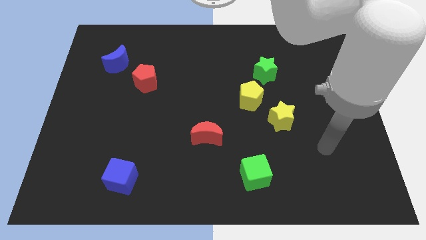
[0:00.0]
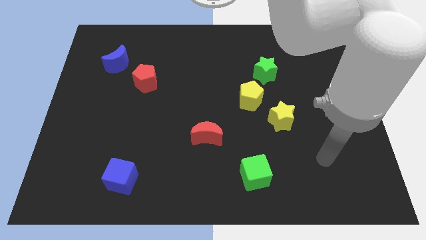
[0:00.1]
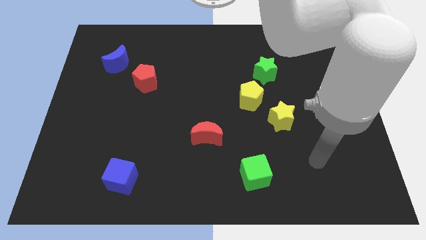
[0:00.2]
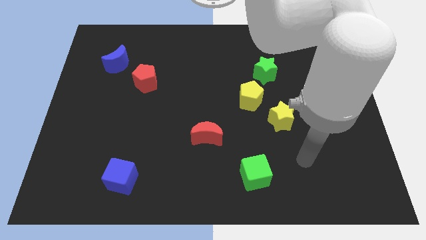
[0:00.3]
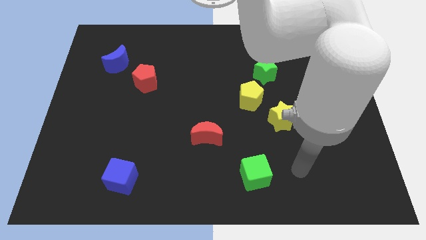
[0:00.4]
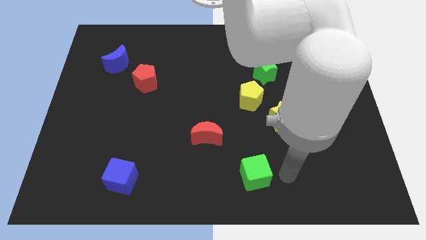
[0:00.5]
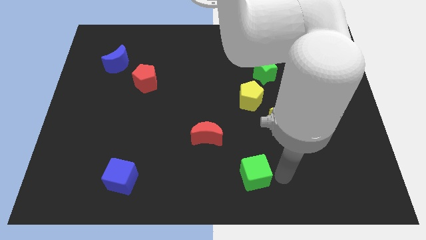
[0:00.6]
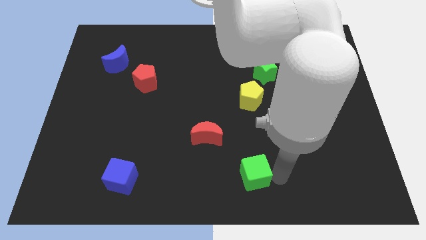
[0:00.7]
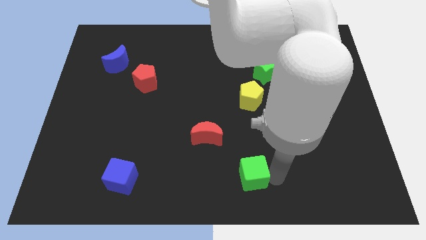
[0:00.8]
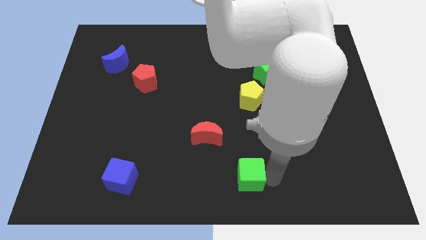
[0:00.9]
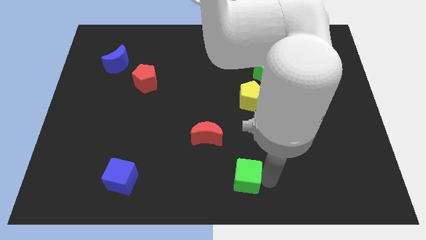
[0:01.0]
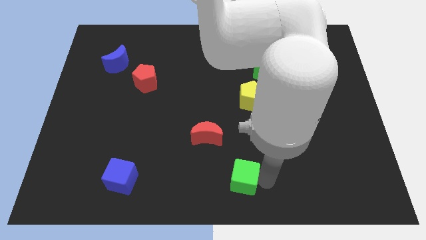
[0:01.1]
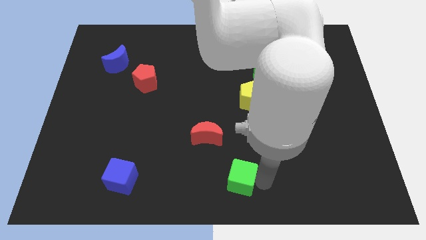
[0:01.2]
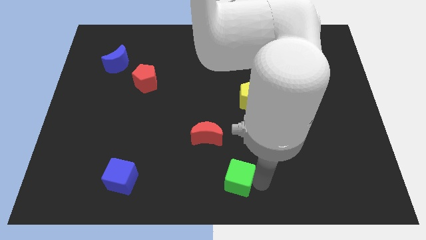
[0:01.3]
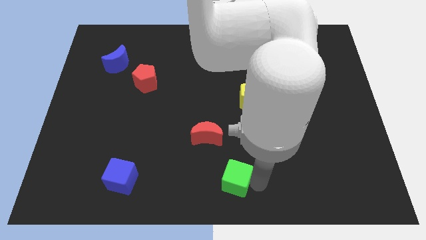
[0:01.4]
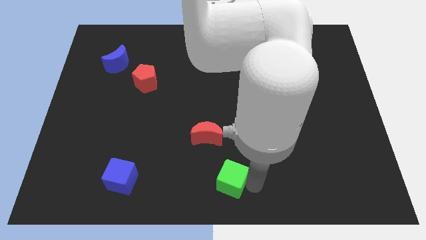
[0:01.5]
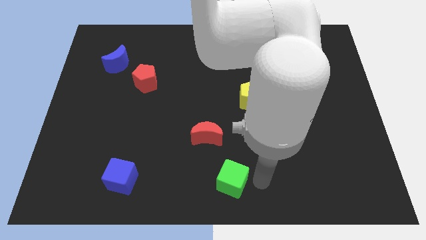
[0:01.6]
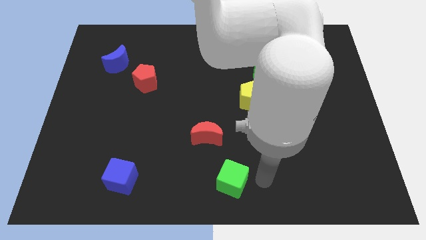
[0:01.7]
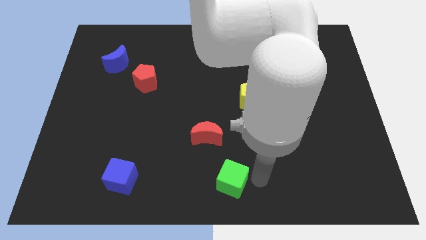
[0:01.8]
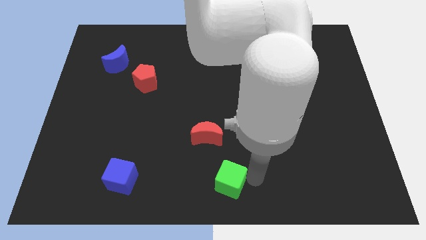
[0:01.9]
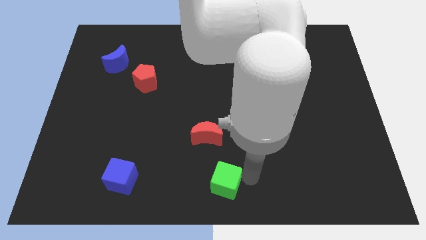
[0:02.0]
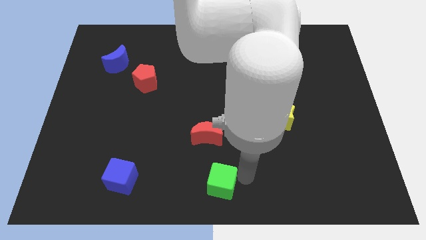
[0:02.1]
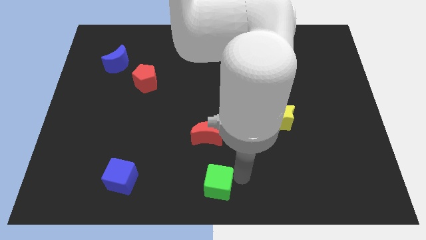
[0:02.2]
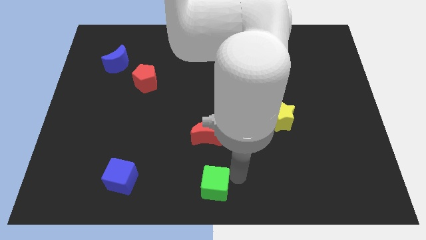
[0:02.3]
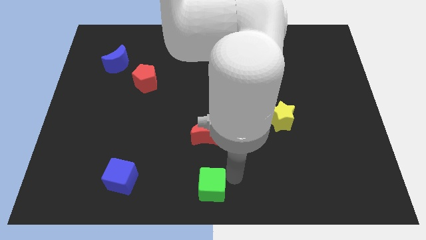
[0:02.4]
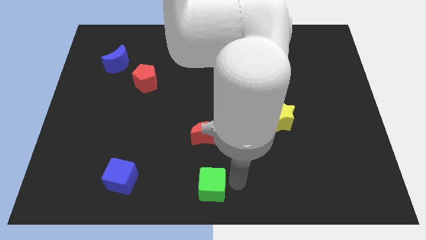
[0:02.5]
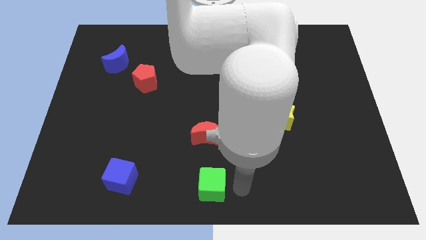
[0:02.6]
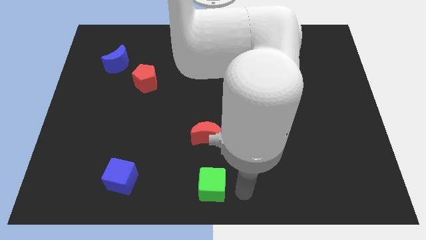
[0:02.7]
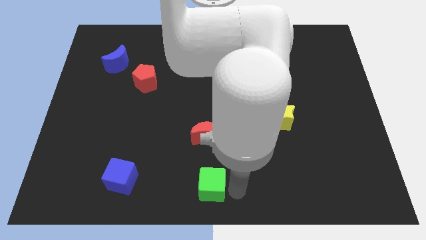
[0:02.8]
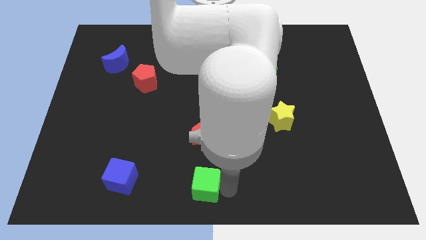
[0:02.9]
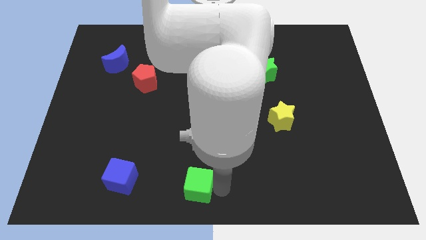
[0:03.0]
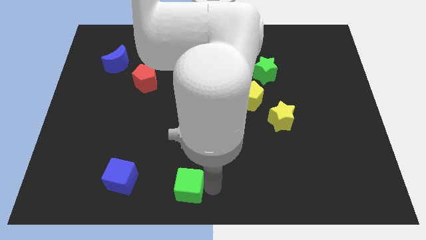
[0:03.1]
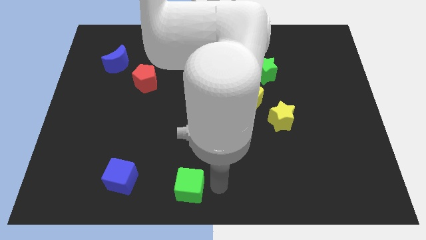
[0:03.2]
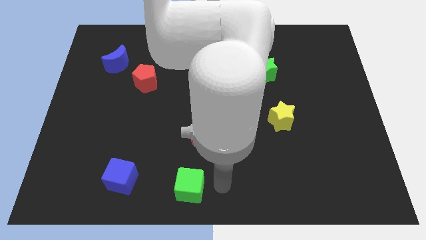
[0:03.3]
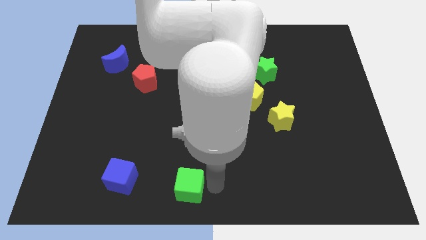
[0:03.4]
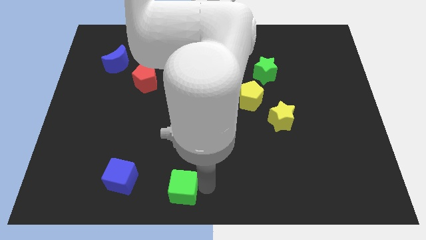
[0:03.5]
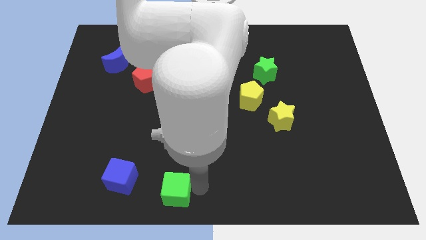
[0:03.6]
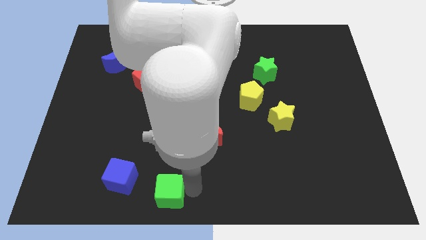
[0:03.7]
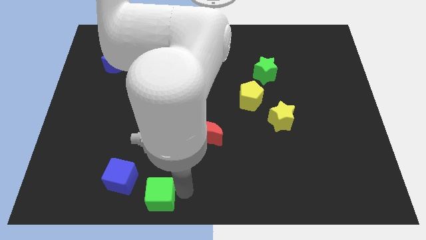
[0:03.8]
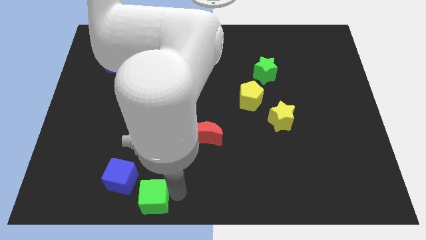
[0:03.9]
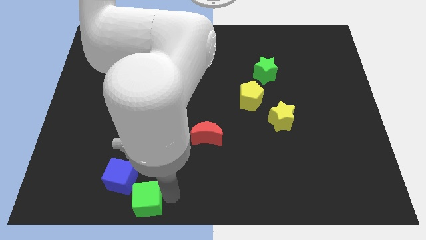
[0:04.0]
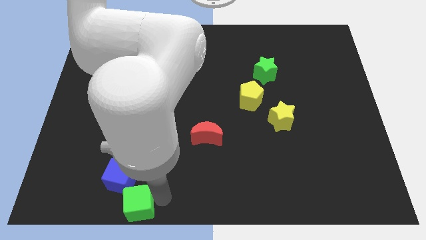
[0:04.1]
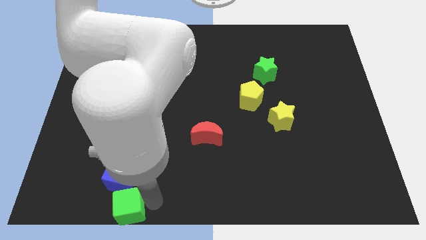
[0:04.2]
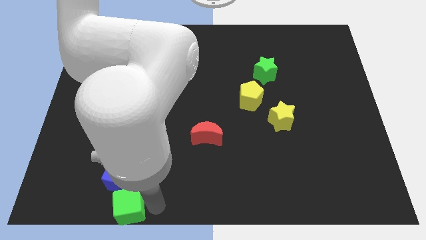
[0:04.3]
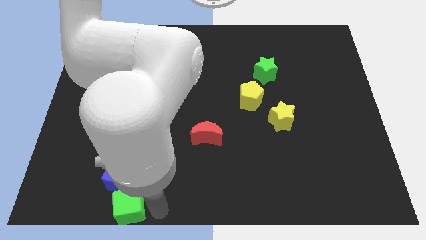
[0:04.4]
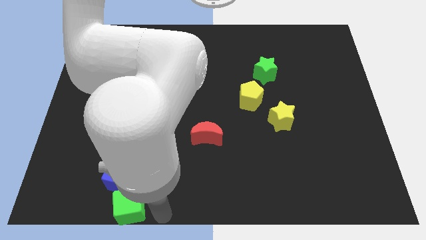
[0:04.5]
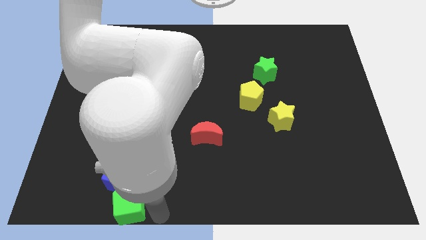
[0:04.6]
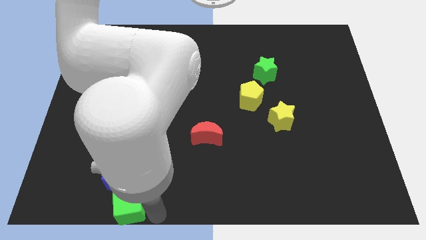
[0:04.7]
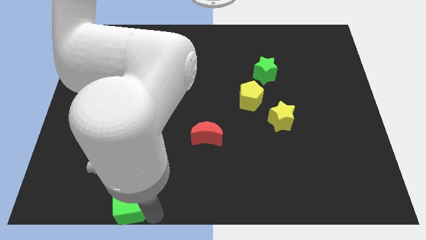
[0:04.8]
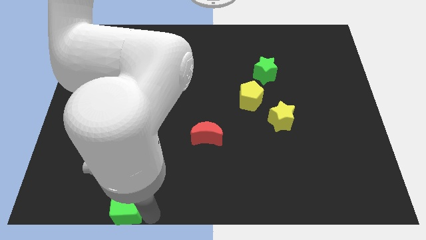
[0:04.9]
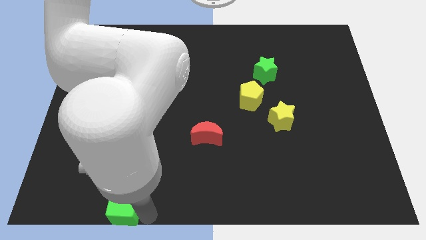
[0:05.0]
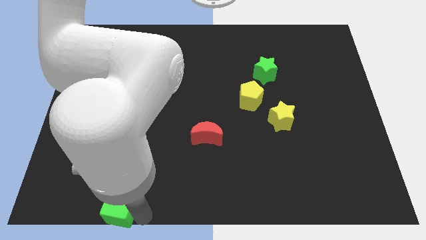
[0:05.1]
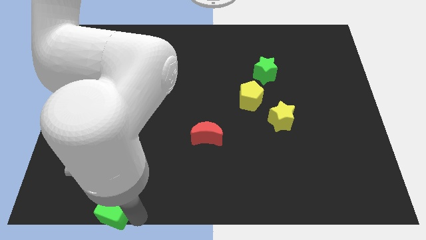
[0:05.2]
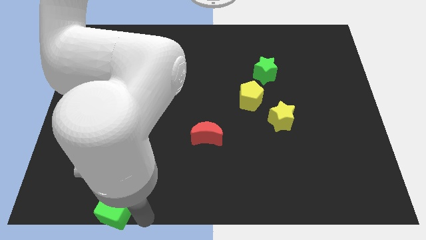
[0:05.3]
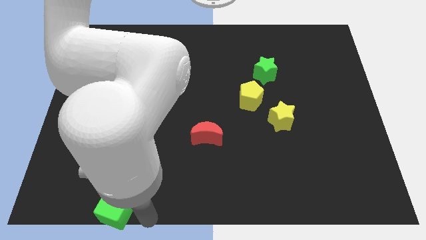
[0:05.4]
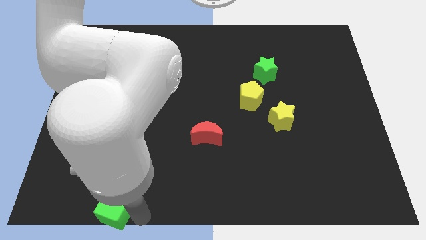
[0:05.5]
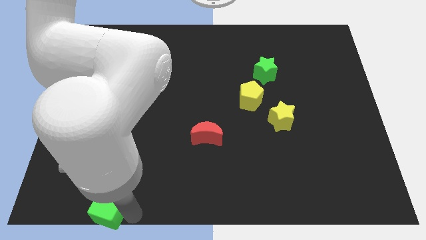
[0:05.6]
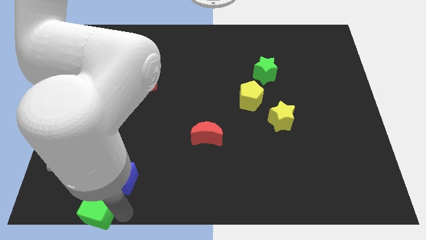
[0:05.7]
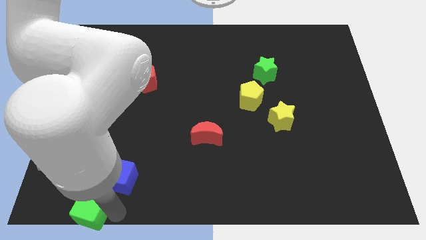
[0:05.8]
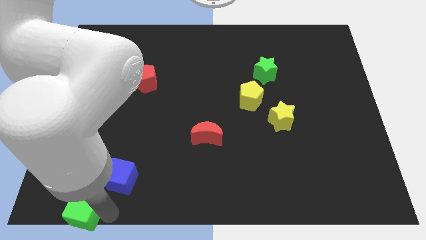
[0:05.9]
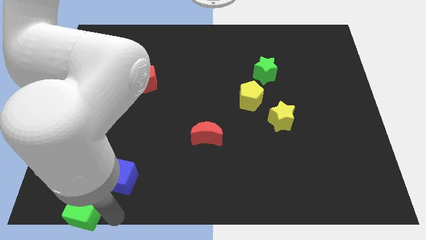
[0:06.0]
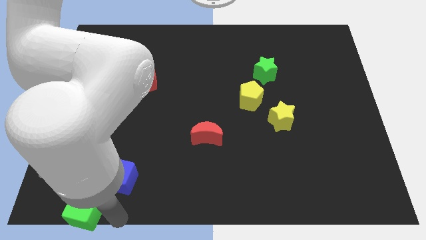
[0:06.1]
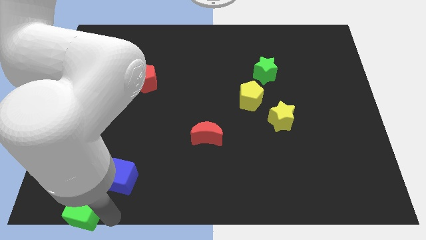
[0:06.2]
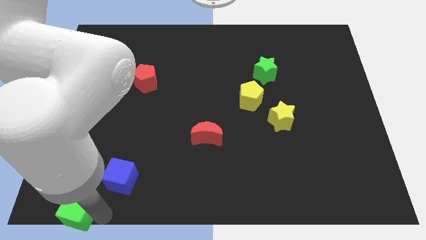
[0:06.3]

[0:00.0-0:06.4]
push the green cube to the bottom left
